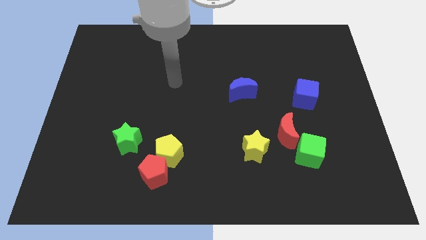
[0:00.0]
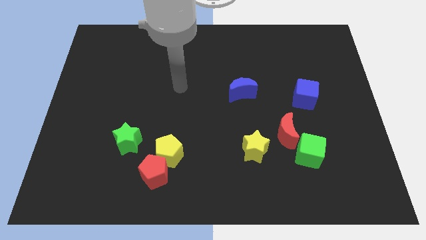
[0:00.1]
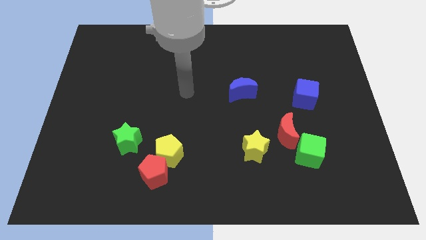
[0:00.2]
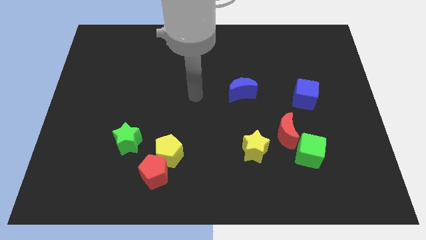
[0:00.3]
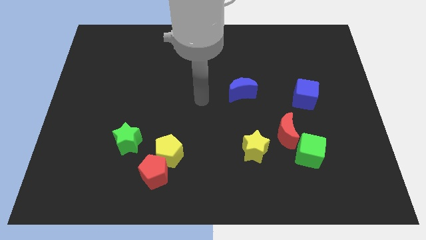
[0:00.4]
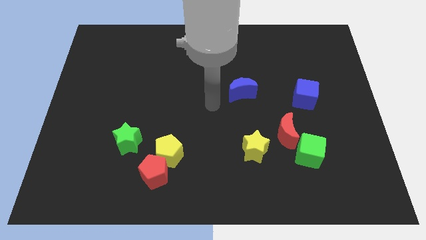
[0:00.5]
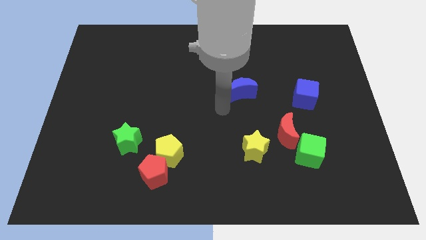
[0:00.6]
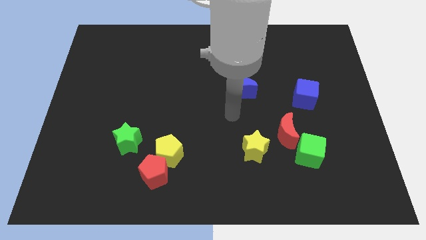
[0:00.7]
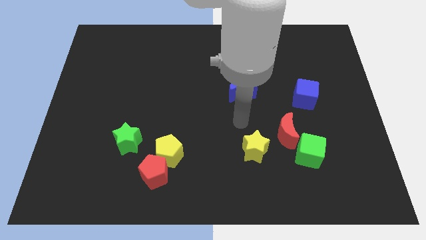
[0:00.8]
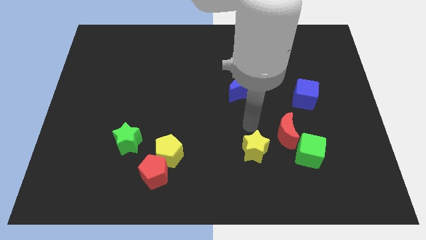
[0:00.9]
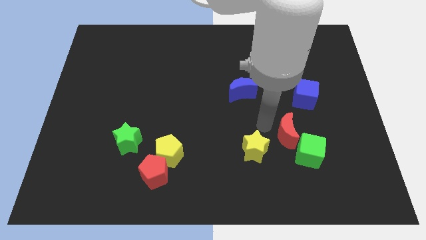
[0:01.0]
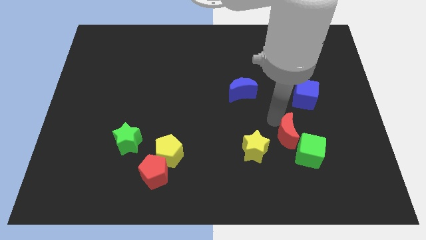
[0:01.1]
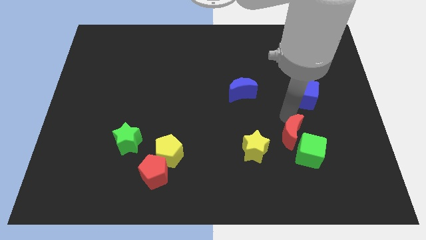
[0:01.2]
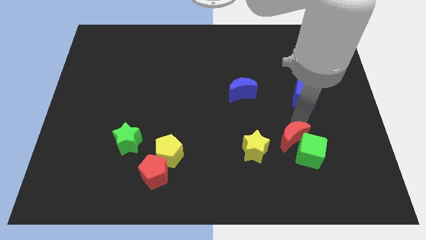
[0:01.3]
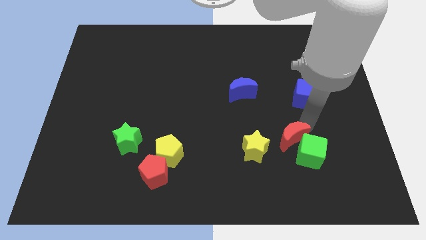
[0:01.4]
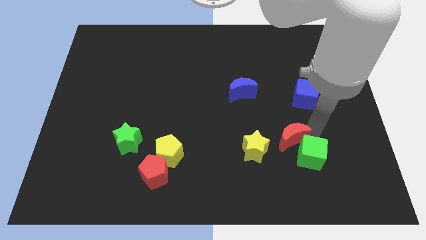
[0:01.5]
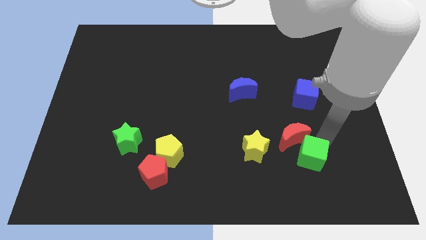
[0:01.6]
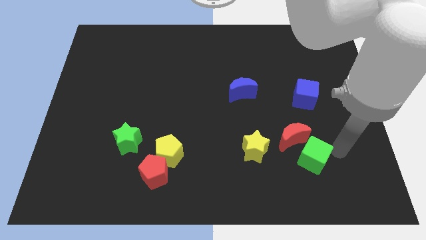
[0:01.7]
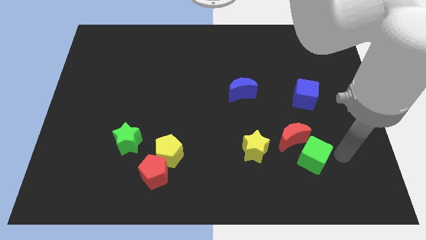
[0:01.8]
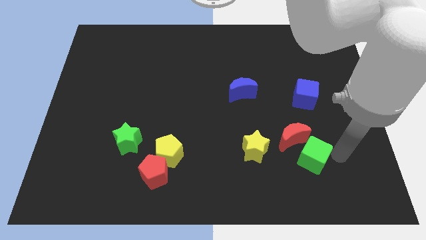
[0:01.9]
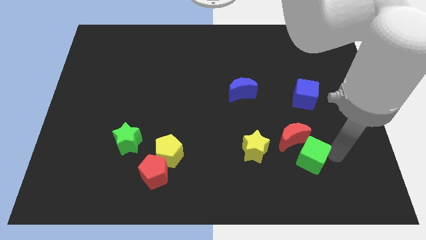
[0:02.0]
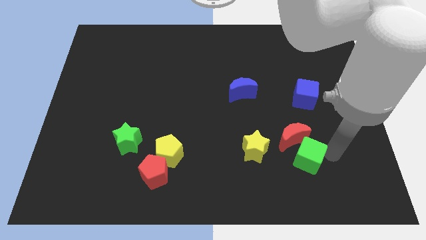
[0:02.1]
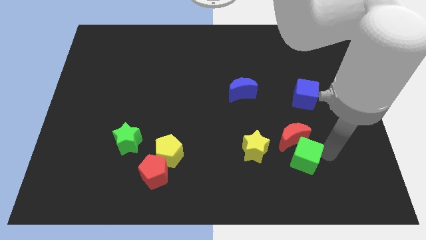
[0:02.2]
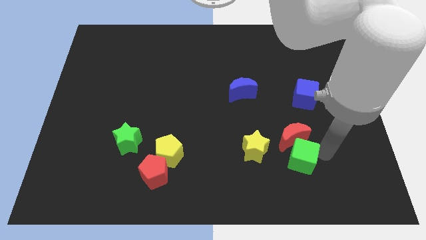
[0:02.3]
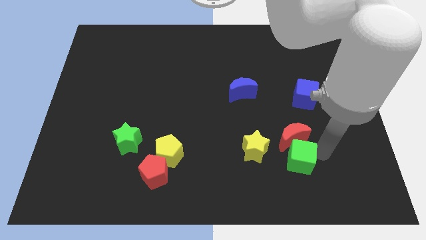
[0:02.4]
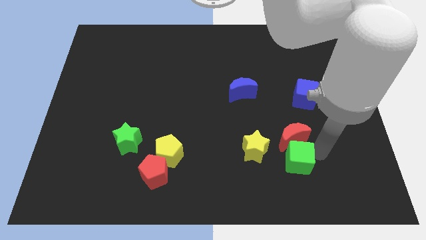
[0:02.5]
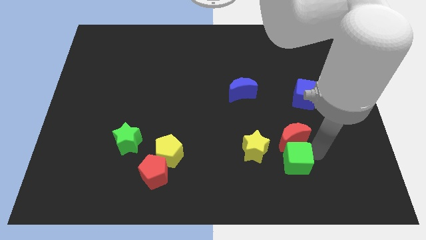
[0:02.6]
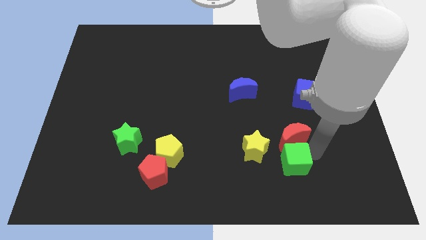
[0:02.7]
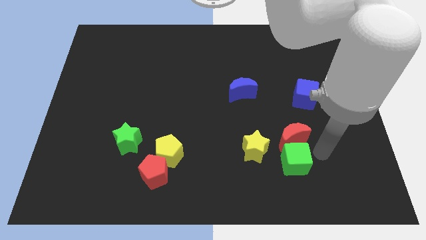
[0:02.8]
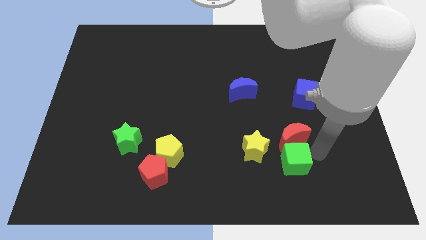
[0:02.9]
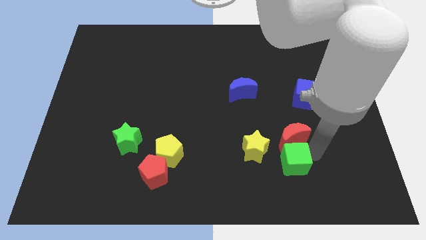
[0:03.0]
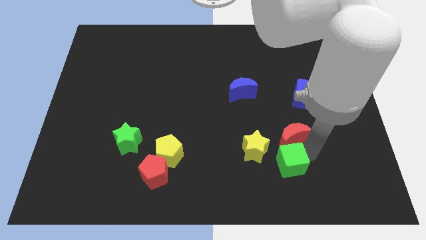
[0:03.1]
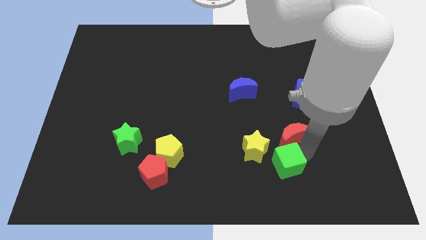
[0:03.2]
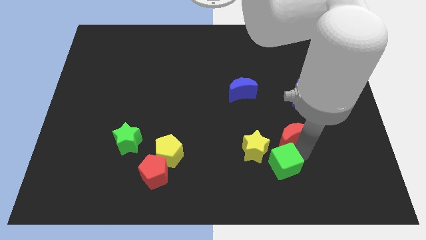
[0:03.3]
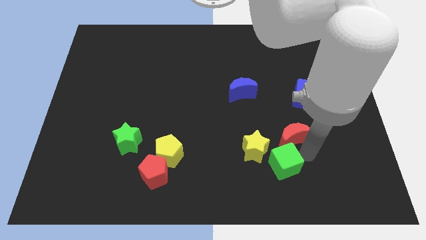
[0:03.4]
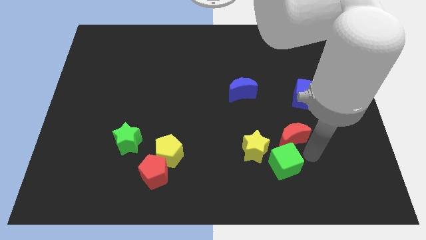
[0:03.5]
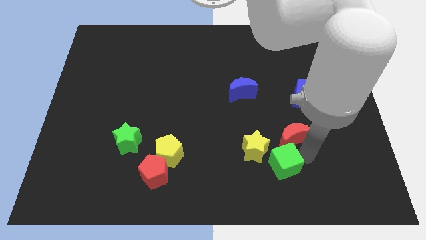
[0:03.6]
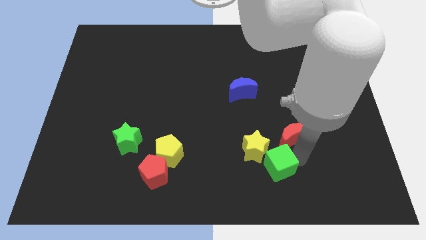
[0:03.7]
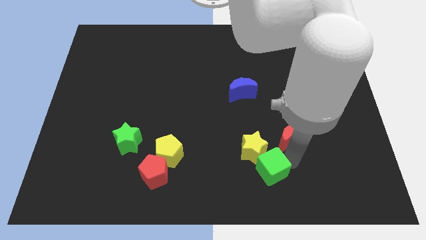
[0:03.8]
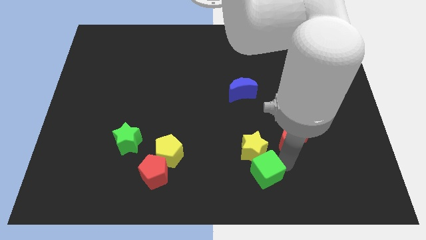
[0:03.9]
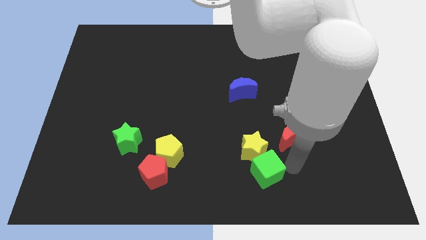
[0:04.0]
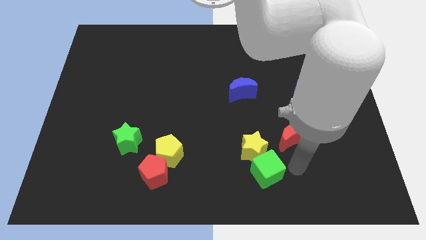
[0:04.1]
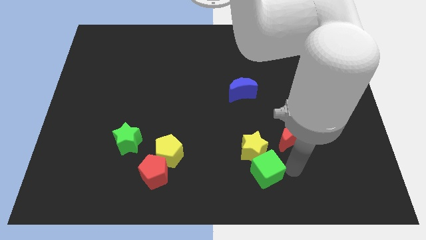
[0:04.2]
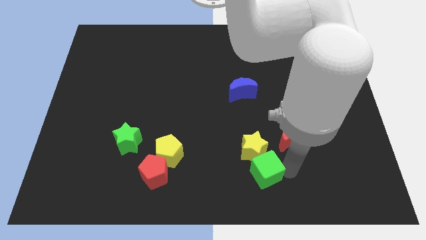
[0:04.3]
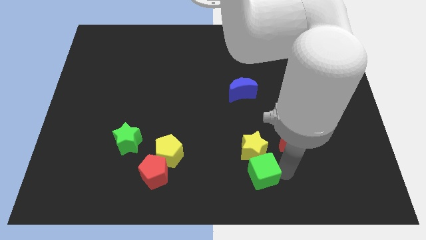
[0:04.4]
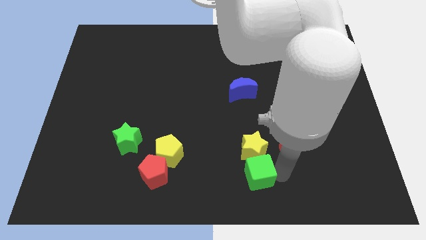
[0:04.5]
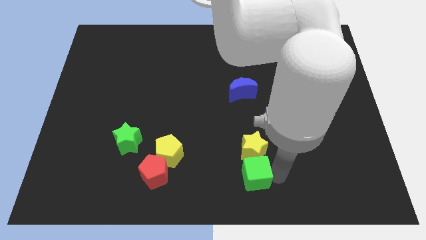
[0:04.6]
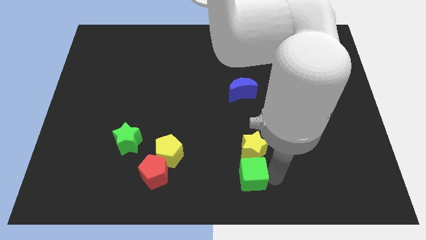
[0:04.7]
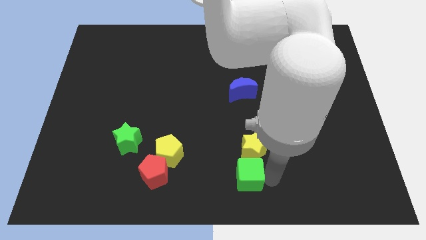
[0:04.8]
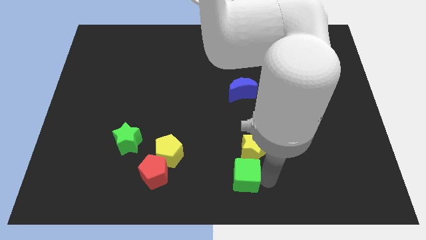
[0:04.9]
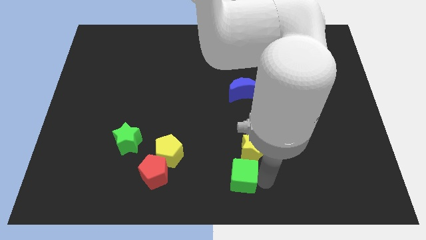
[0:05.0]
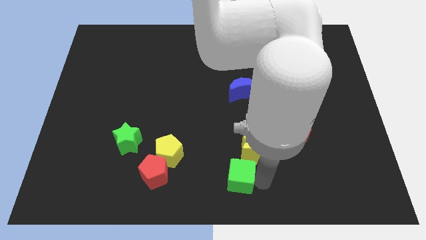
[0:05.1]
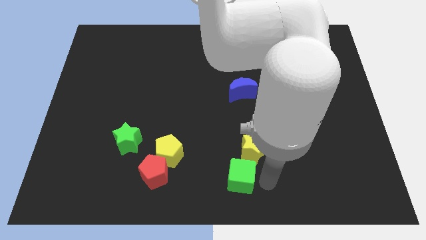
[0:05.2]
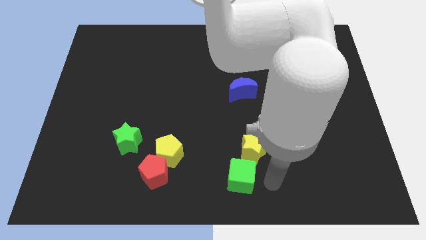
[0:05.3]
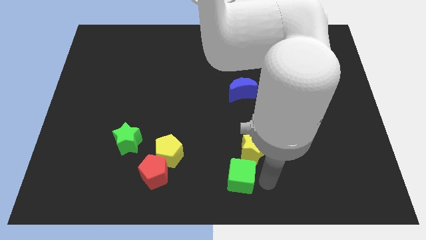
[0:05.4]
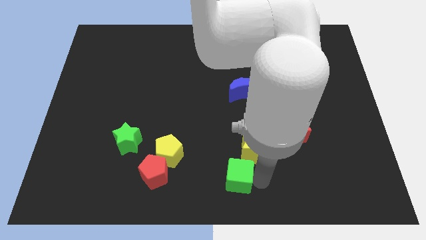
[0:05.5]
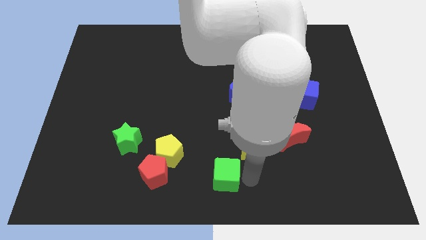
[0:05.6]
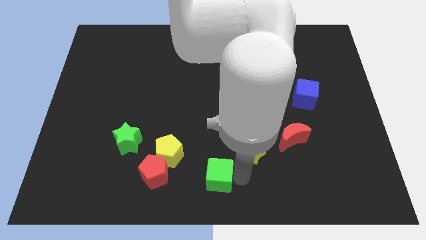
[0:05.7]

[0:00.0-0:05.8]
move the green cube diagonally down and to the right of the yellow pentagon

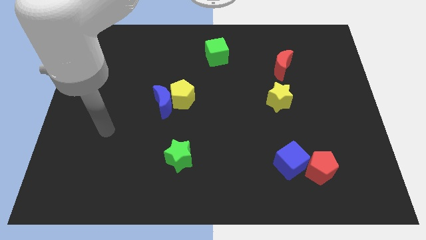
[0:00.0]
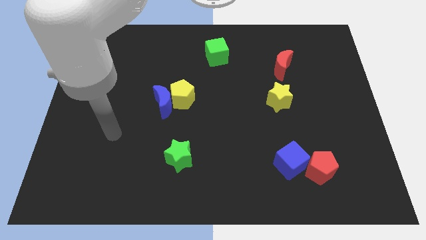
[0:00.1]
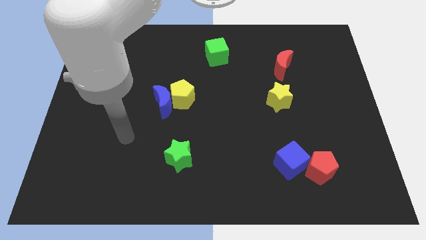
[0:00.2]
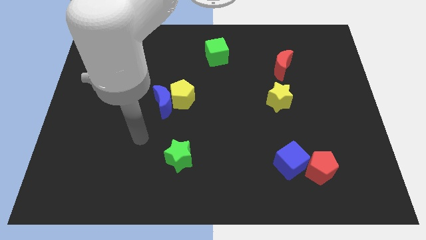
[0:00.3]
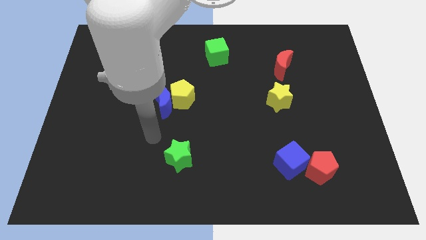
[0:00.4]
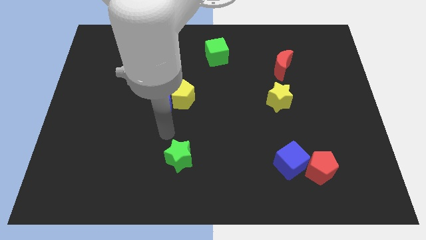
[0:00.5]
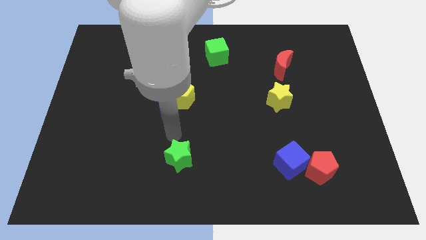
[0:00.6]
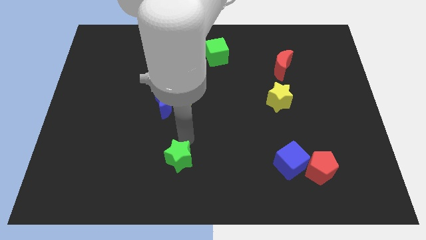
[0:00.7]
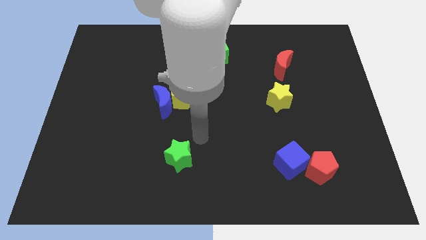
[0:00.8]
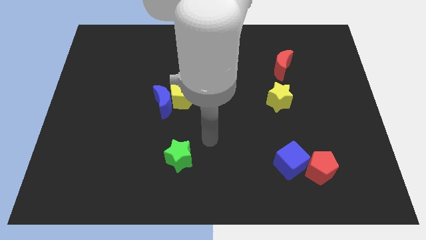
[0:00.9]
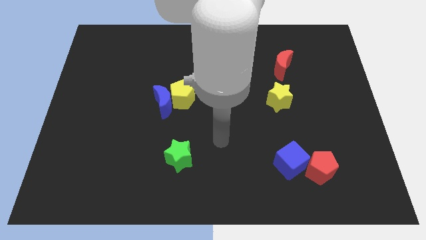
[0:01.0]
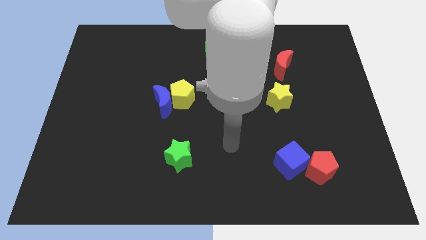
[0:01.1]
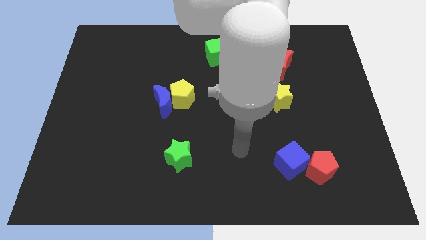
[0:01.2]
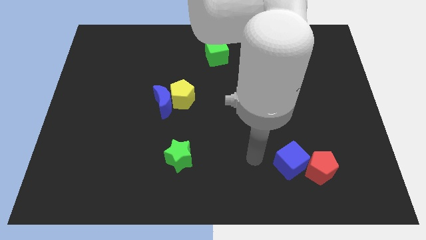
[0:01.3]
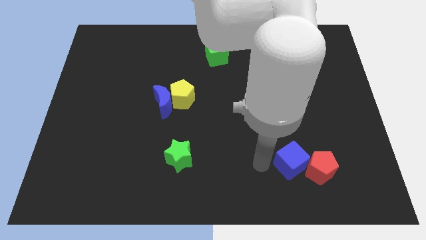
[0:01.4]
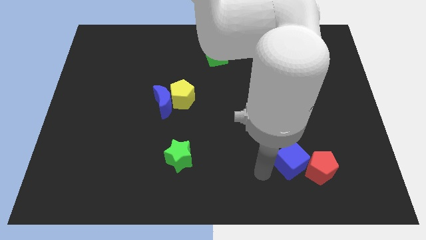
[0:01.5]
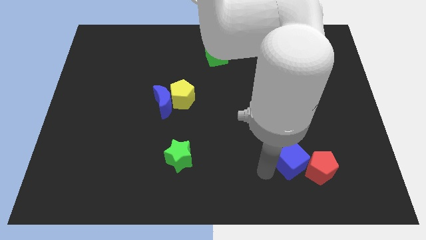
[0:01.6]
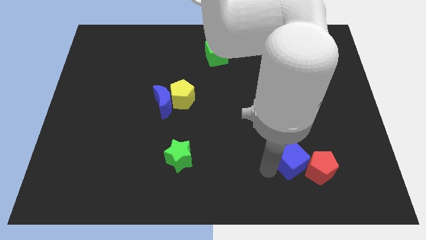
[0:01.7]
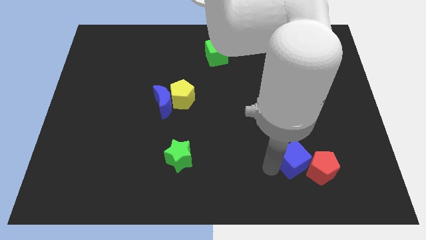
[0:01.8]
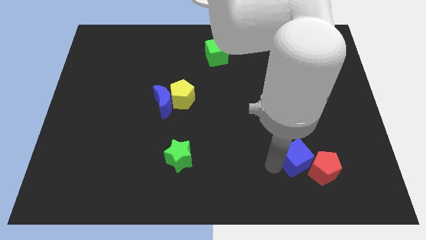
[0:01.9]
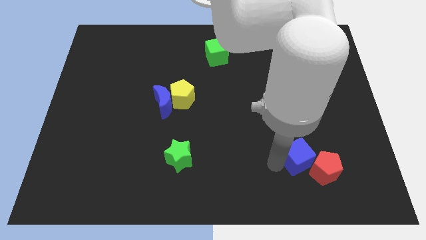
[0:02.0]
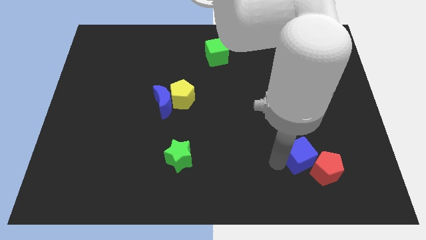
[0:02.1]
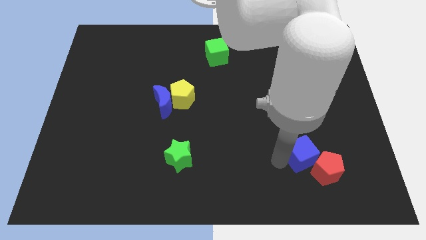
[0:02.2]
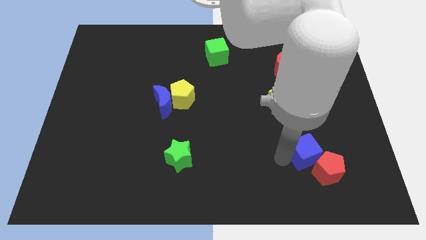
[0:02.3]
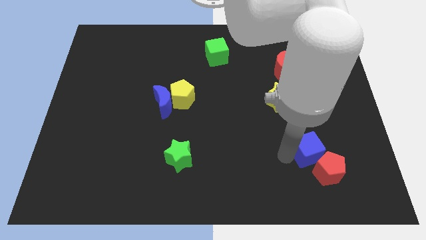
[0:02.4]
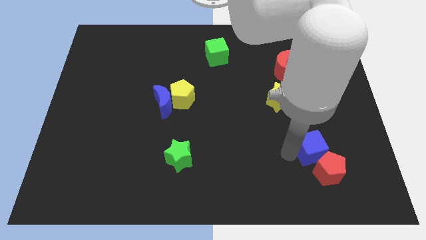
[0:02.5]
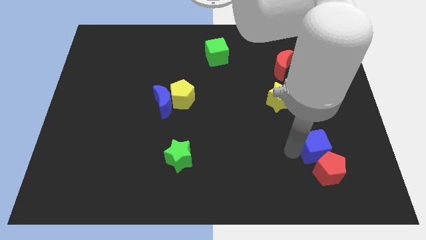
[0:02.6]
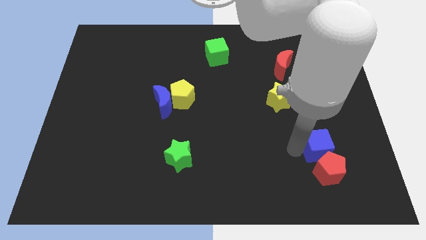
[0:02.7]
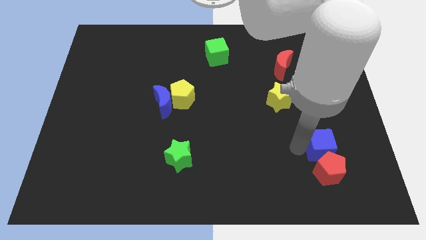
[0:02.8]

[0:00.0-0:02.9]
put the blue cube to the top right side of the red pentagon
